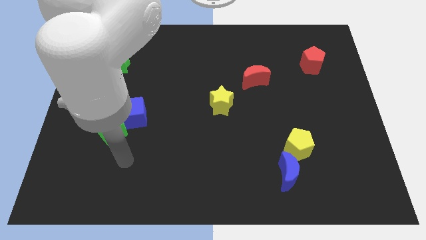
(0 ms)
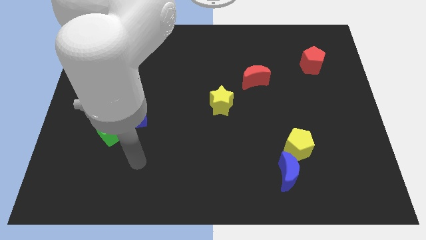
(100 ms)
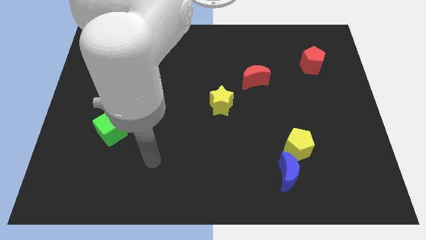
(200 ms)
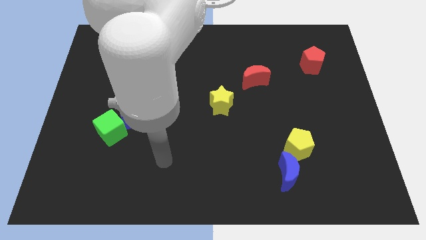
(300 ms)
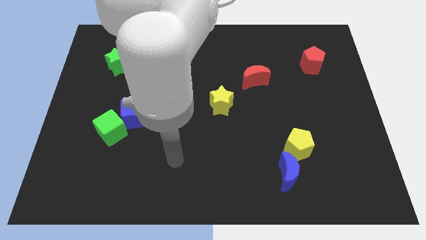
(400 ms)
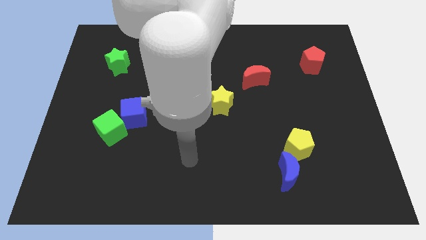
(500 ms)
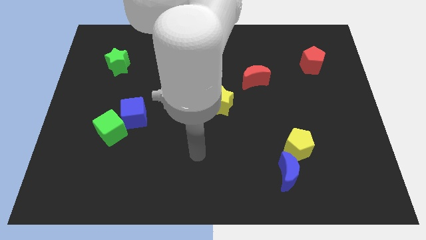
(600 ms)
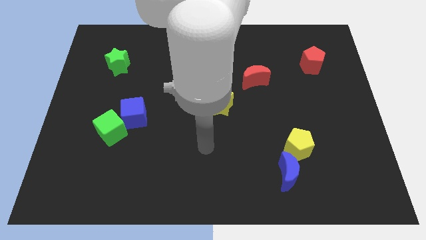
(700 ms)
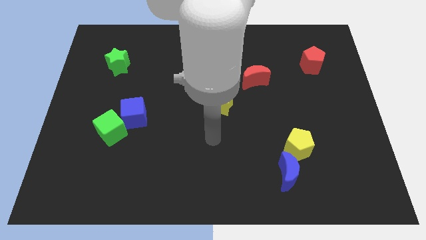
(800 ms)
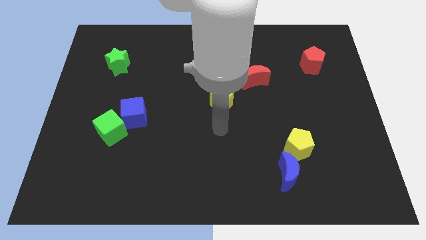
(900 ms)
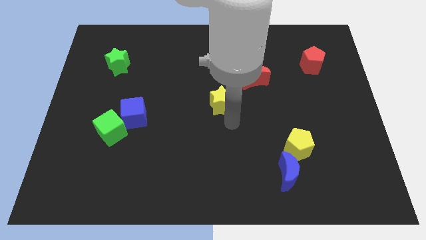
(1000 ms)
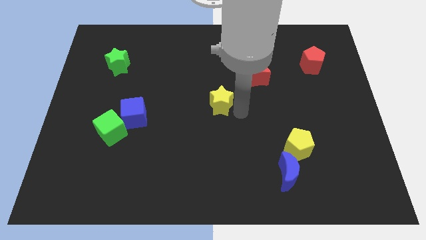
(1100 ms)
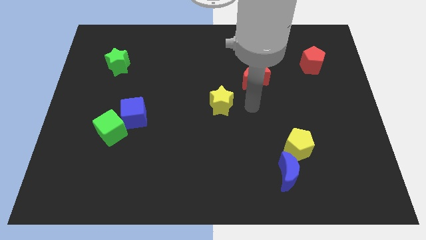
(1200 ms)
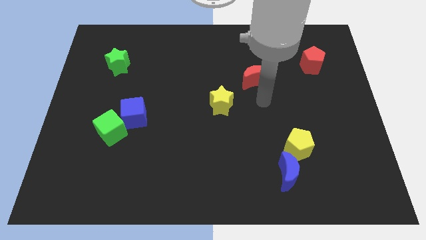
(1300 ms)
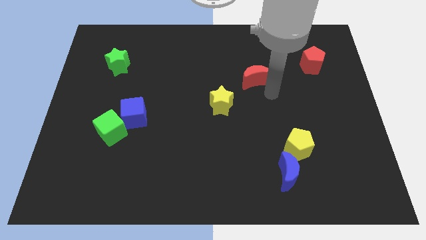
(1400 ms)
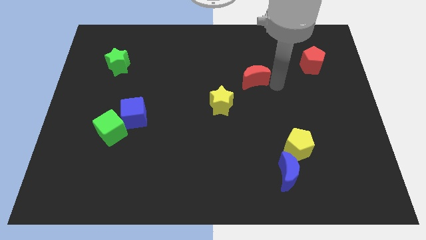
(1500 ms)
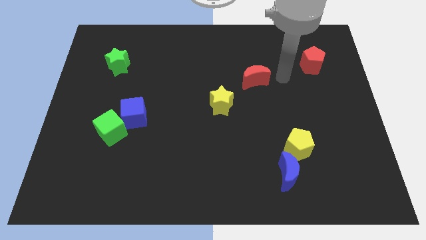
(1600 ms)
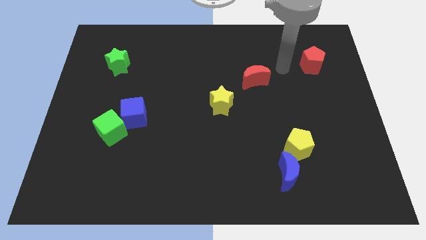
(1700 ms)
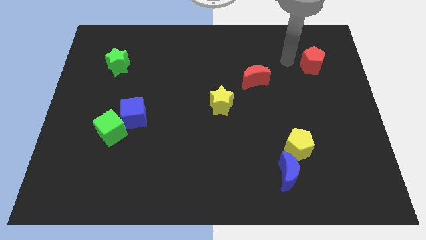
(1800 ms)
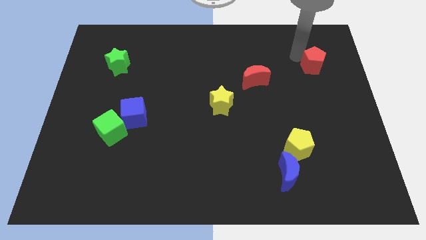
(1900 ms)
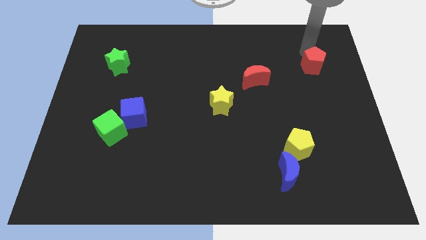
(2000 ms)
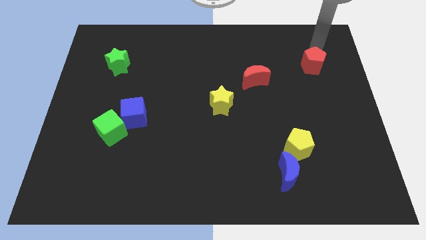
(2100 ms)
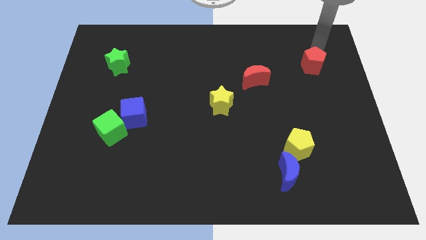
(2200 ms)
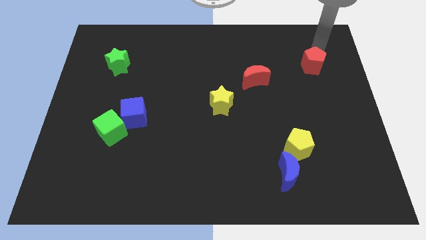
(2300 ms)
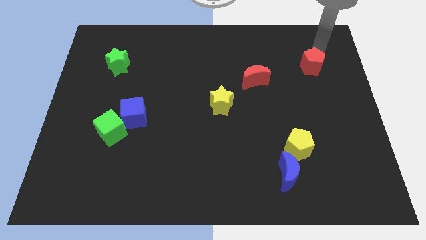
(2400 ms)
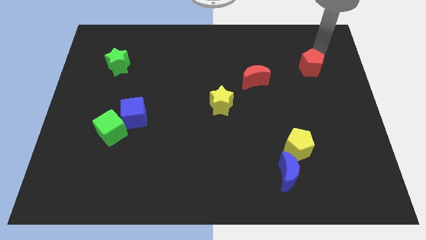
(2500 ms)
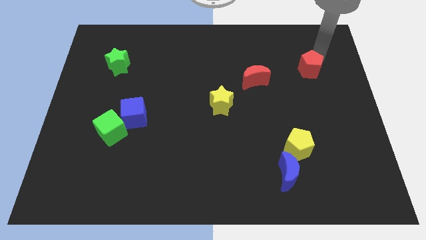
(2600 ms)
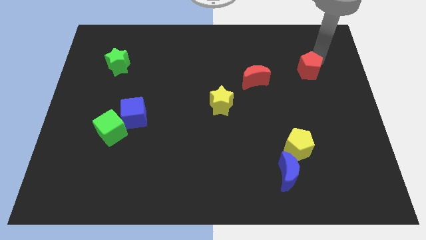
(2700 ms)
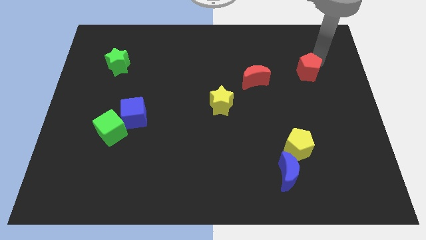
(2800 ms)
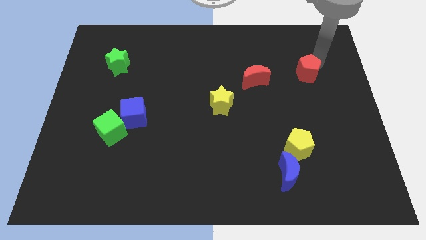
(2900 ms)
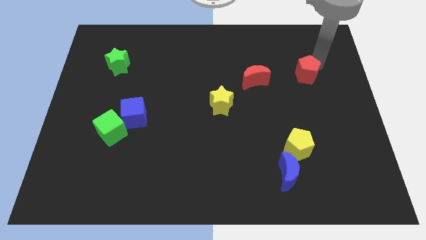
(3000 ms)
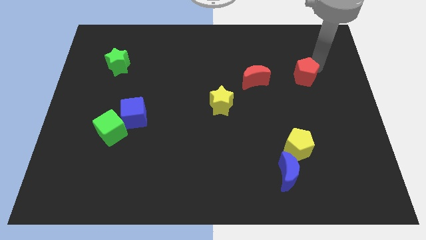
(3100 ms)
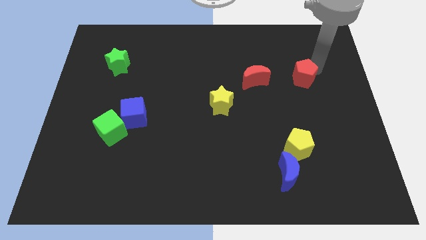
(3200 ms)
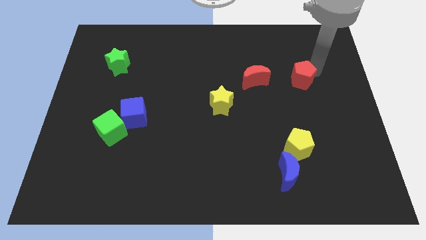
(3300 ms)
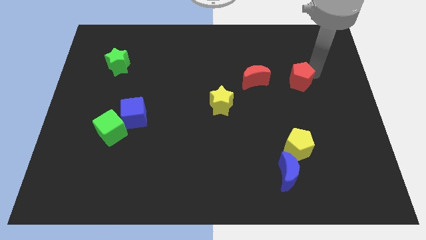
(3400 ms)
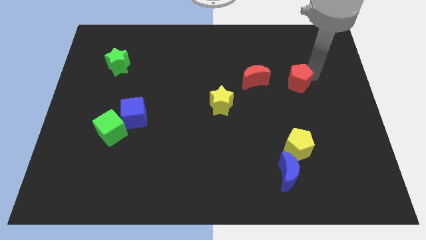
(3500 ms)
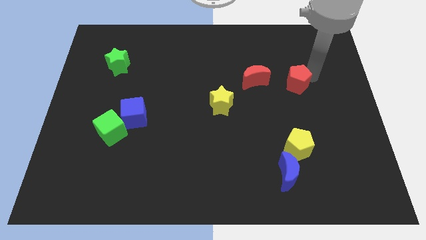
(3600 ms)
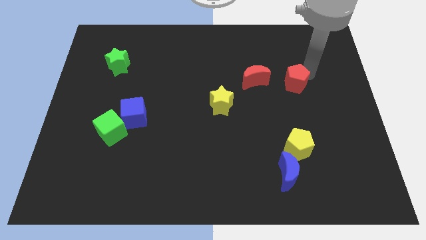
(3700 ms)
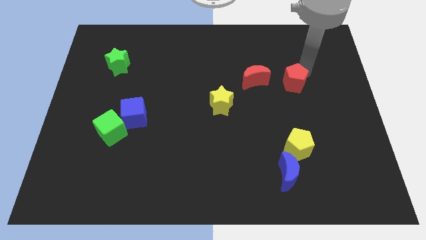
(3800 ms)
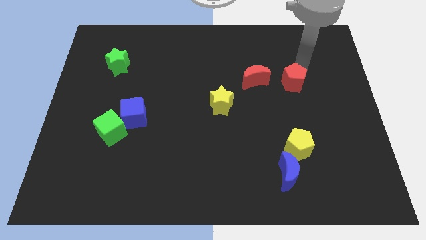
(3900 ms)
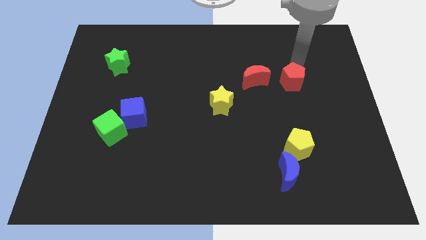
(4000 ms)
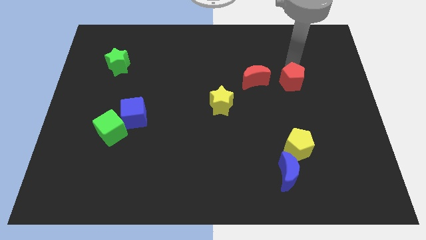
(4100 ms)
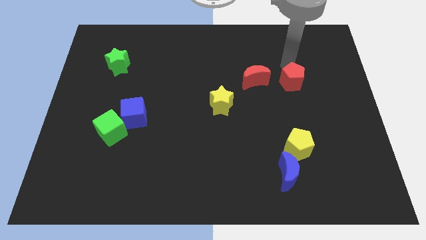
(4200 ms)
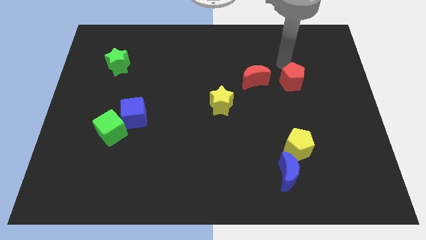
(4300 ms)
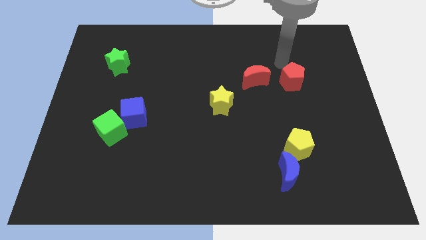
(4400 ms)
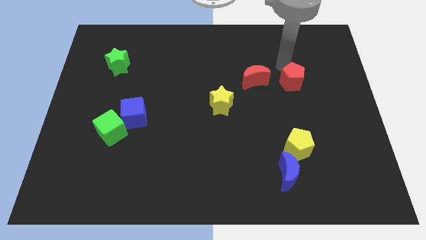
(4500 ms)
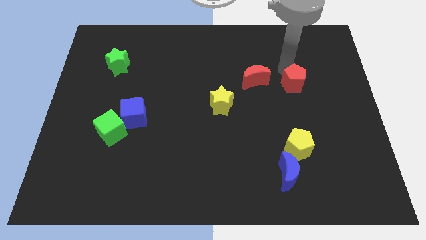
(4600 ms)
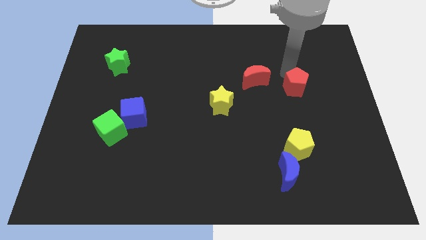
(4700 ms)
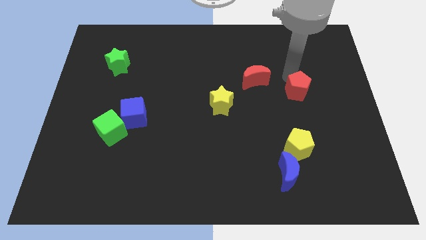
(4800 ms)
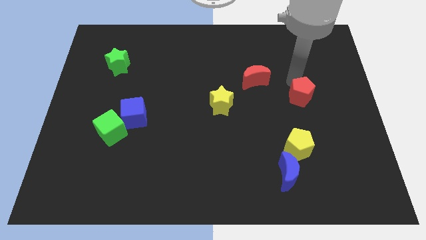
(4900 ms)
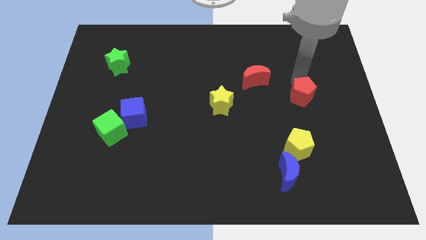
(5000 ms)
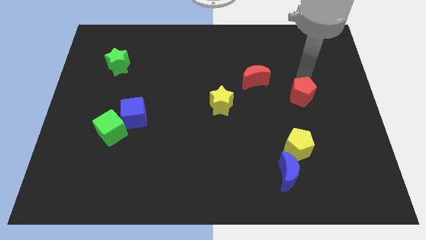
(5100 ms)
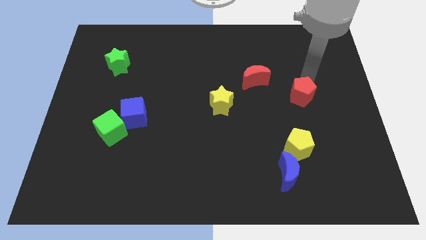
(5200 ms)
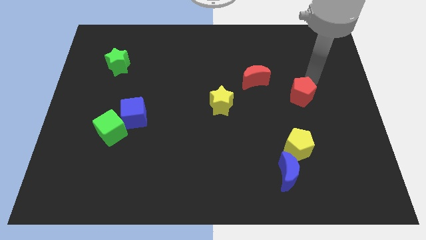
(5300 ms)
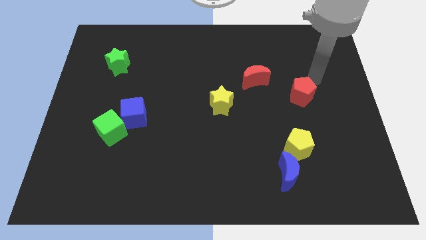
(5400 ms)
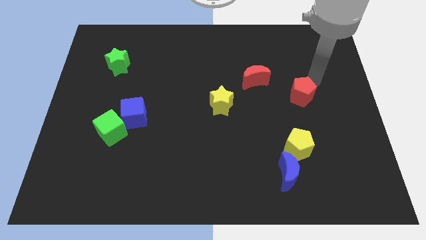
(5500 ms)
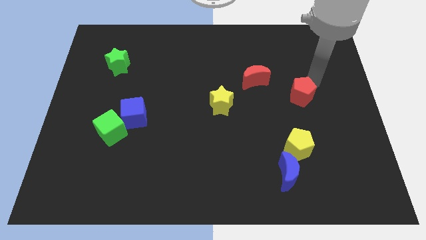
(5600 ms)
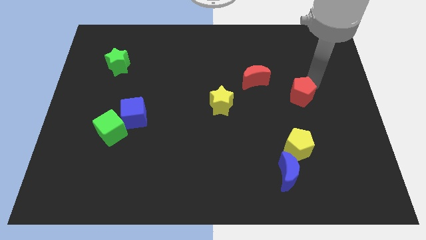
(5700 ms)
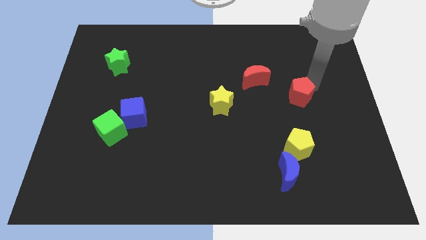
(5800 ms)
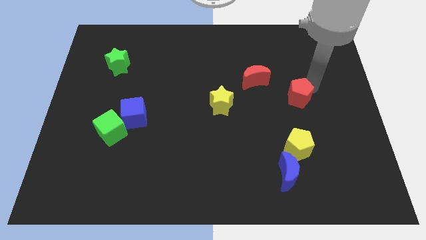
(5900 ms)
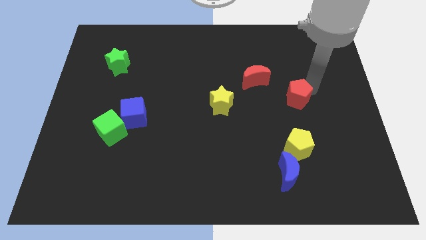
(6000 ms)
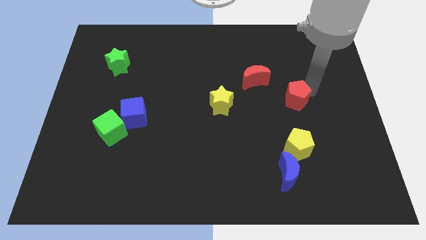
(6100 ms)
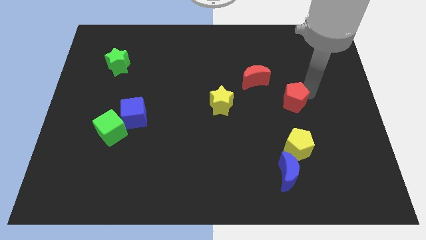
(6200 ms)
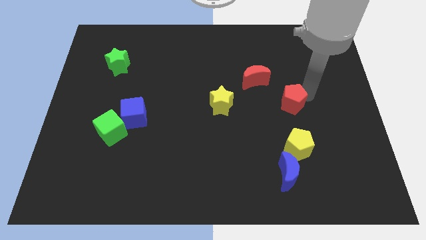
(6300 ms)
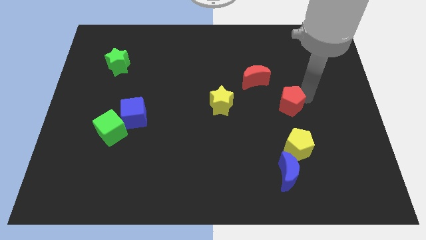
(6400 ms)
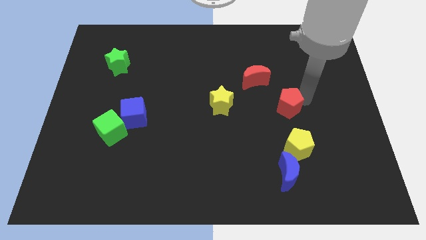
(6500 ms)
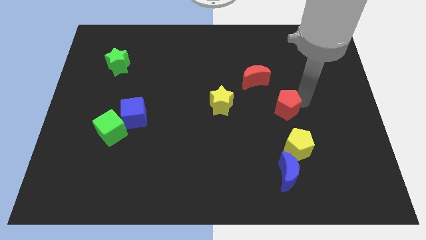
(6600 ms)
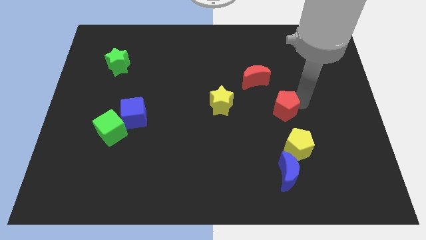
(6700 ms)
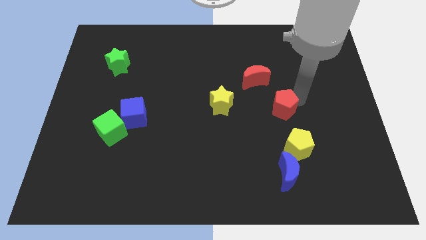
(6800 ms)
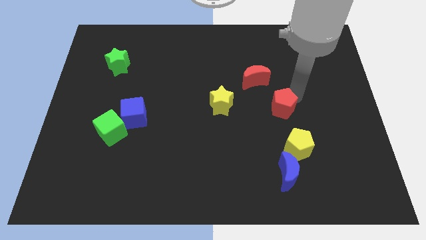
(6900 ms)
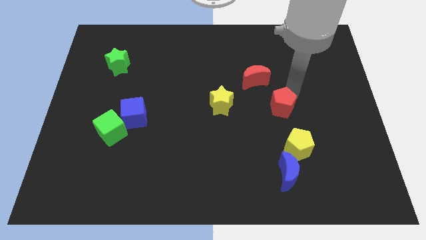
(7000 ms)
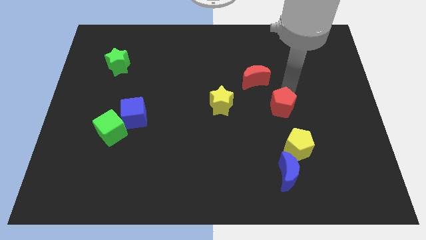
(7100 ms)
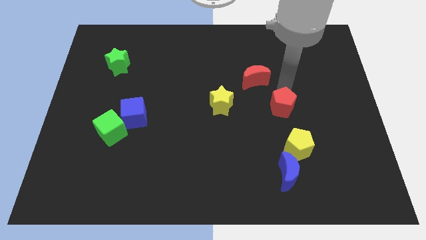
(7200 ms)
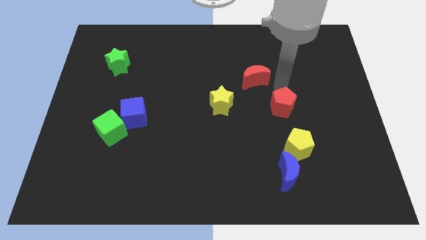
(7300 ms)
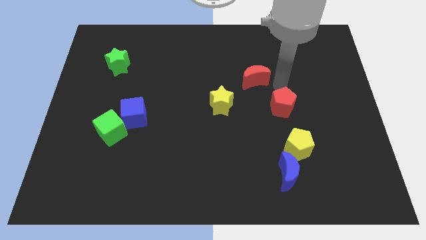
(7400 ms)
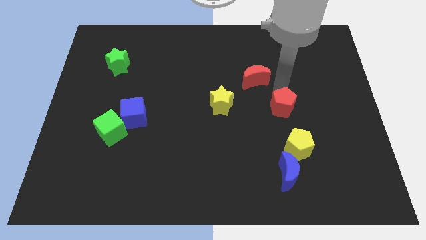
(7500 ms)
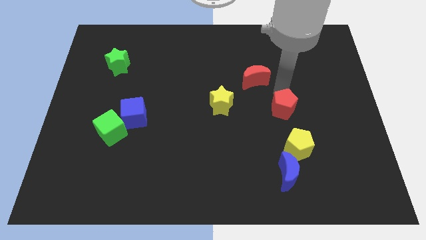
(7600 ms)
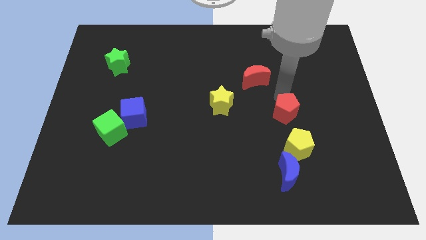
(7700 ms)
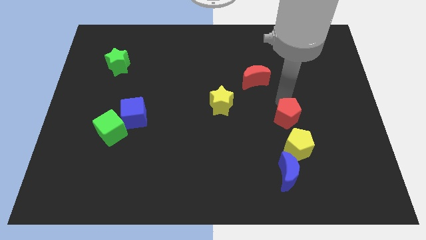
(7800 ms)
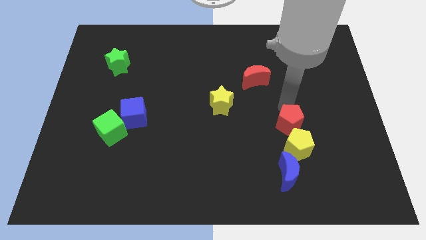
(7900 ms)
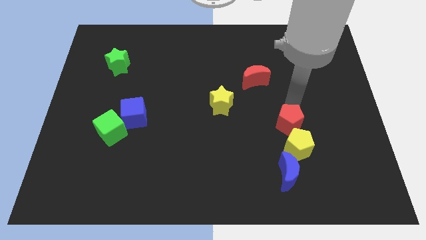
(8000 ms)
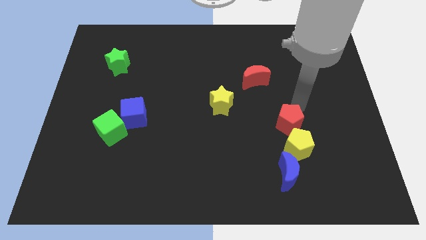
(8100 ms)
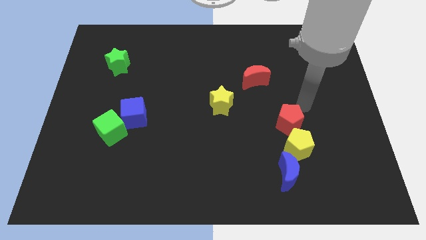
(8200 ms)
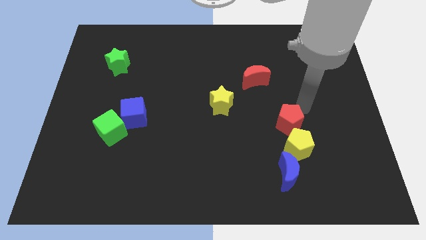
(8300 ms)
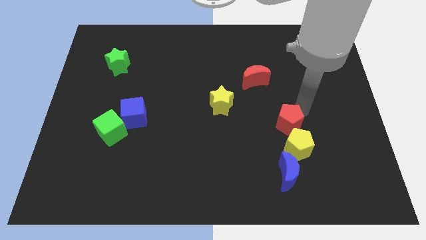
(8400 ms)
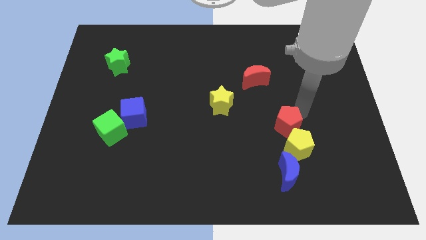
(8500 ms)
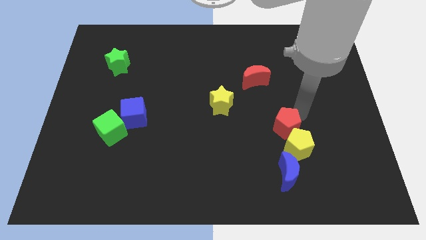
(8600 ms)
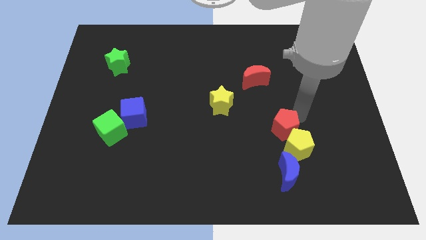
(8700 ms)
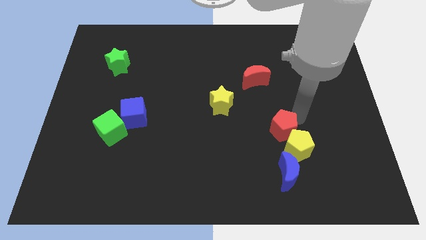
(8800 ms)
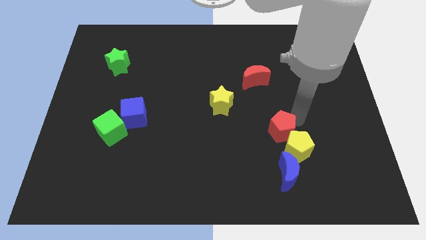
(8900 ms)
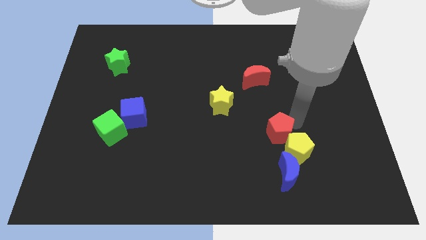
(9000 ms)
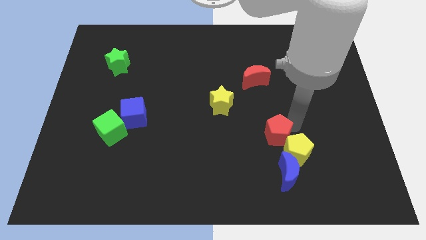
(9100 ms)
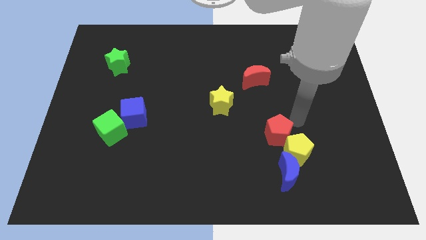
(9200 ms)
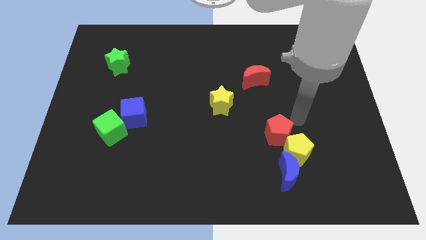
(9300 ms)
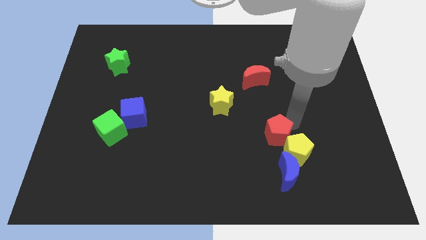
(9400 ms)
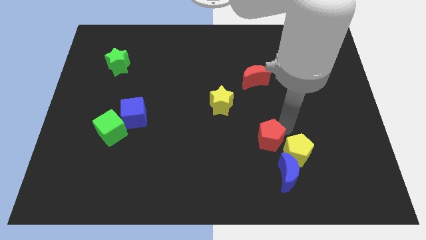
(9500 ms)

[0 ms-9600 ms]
move the red pentagon just left of the yellow pentagon
